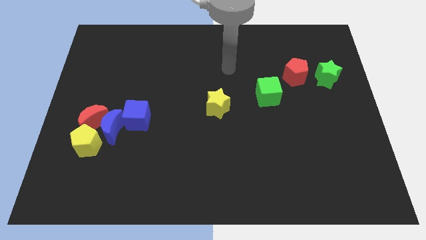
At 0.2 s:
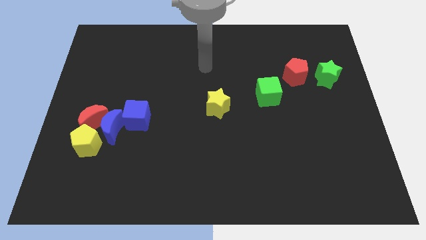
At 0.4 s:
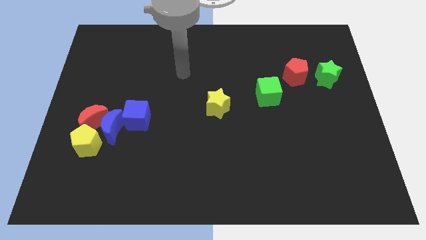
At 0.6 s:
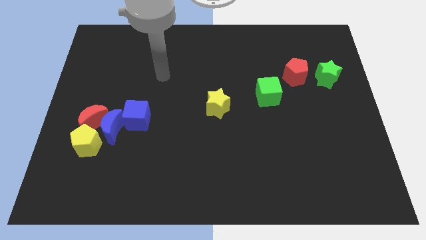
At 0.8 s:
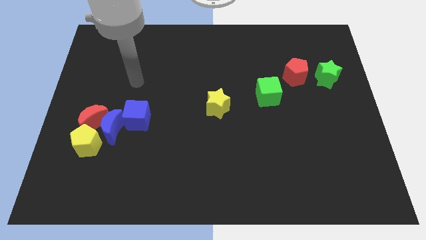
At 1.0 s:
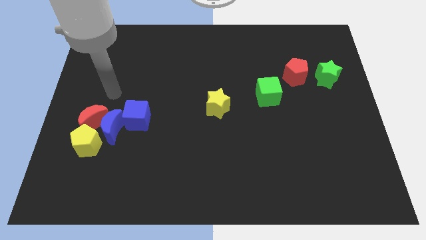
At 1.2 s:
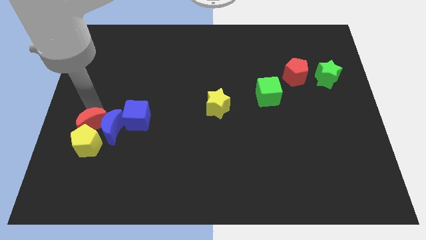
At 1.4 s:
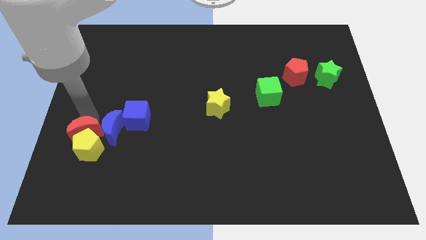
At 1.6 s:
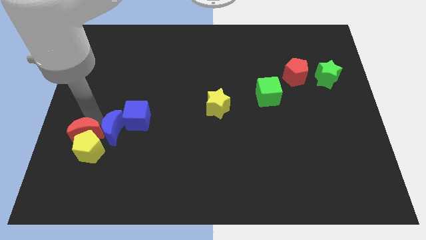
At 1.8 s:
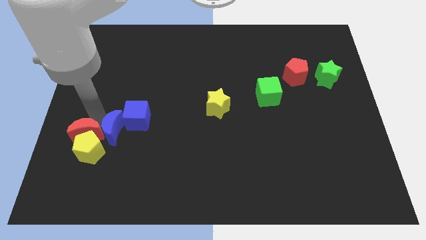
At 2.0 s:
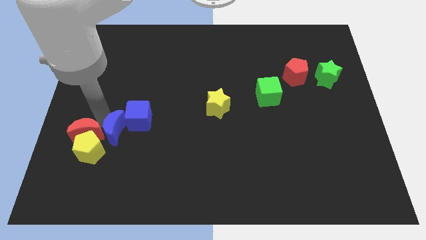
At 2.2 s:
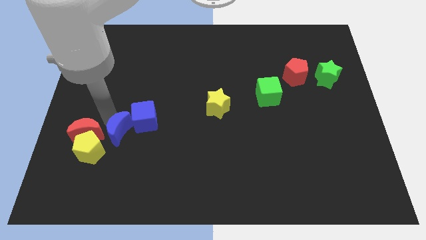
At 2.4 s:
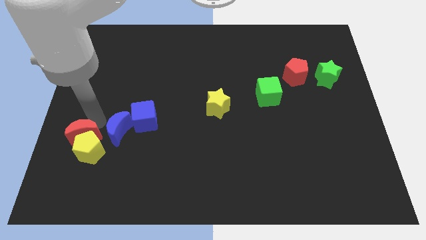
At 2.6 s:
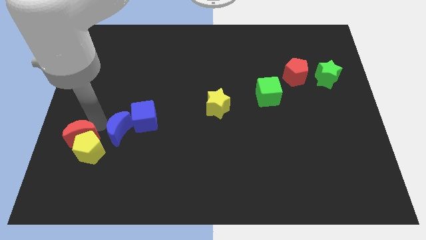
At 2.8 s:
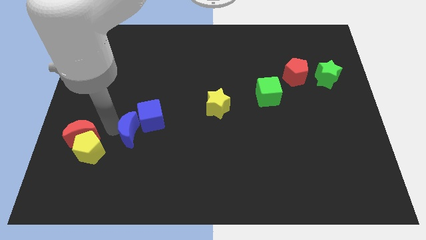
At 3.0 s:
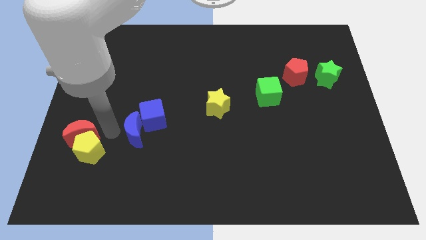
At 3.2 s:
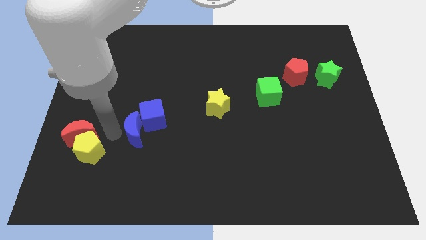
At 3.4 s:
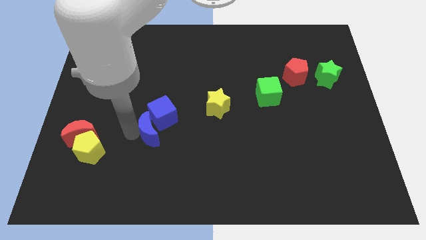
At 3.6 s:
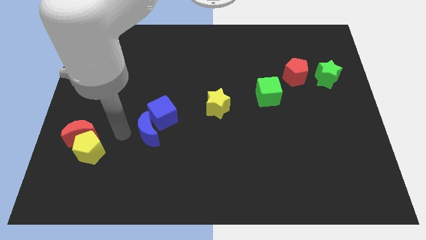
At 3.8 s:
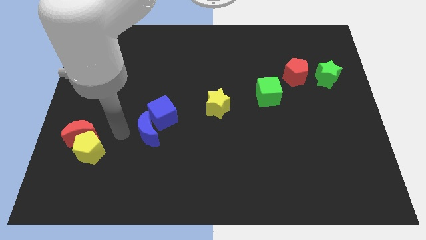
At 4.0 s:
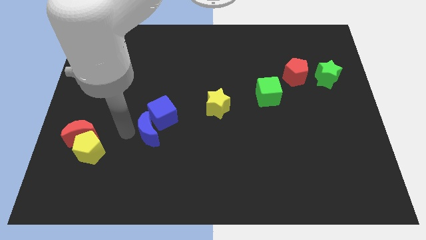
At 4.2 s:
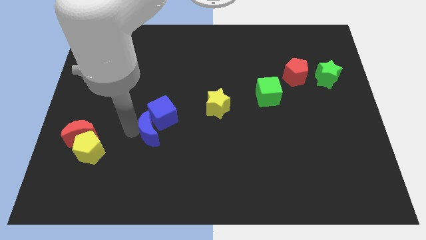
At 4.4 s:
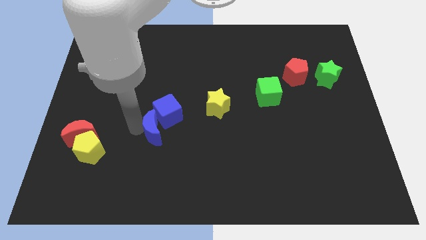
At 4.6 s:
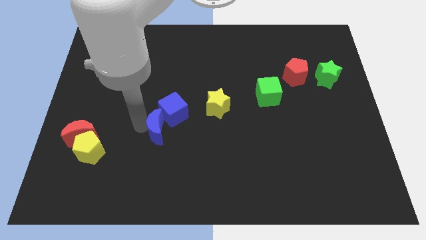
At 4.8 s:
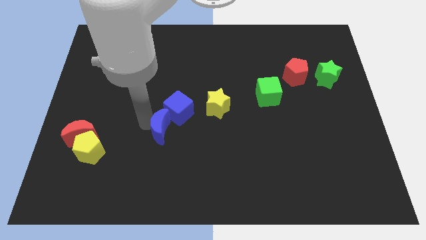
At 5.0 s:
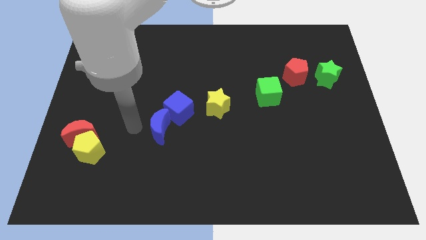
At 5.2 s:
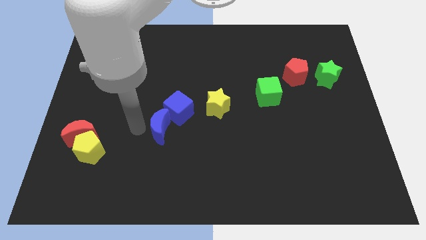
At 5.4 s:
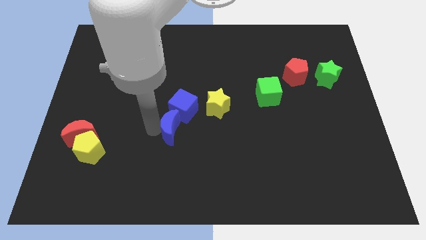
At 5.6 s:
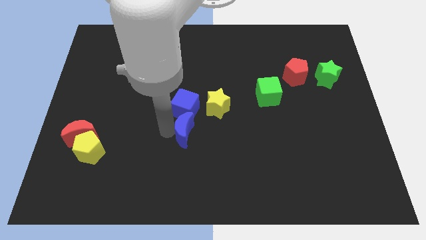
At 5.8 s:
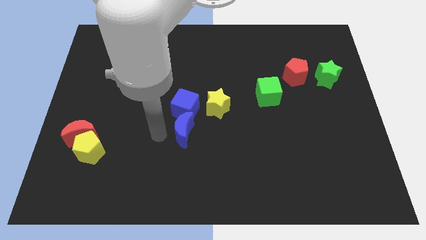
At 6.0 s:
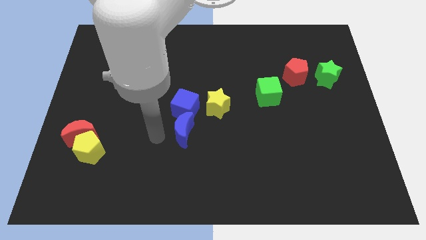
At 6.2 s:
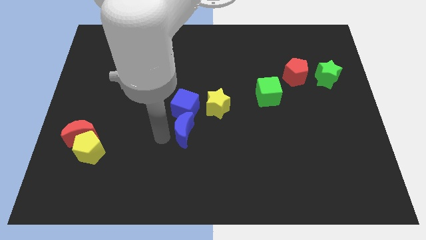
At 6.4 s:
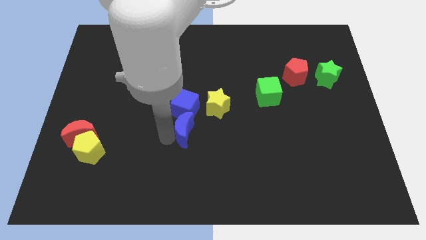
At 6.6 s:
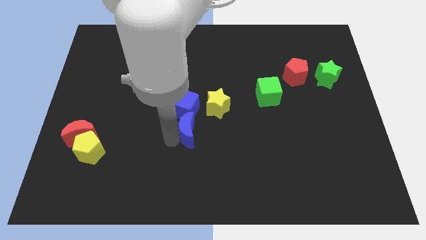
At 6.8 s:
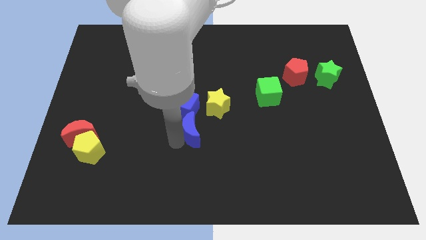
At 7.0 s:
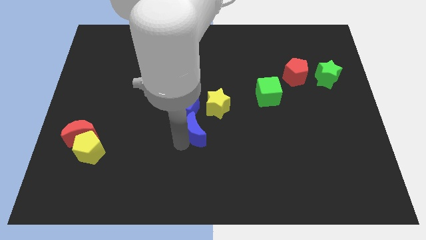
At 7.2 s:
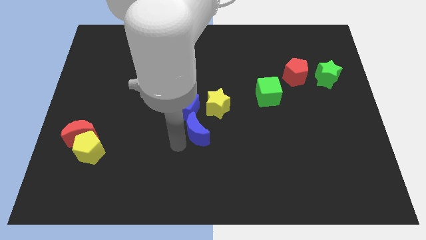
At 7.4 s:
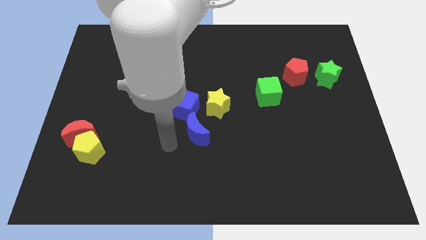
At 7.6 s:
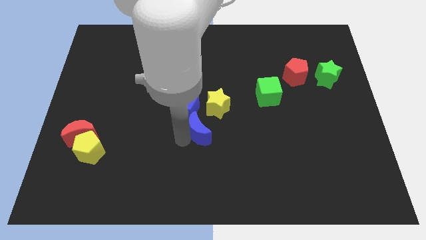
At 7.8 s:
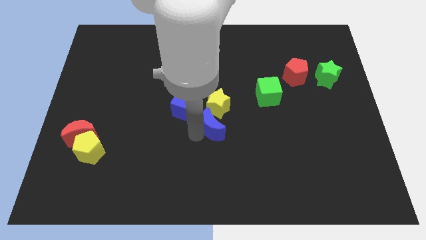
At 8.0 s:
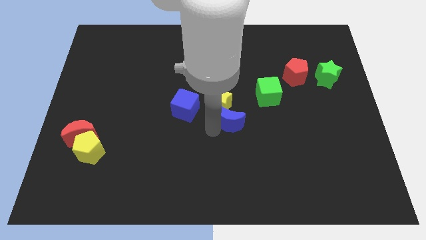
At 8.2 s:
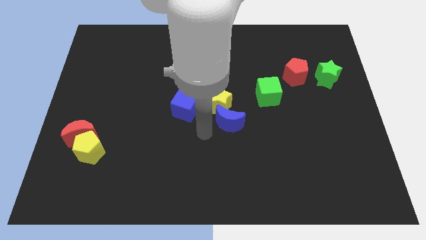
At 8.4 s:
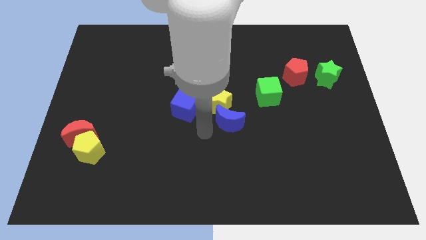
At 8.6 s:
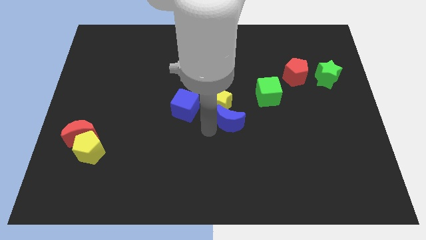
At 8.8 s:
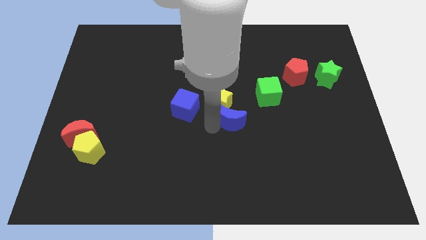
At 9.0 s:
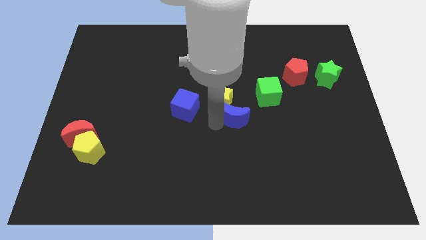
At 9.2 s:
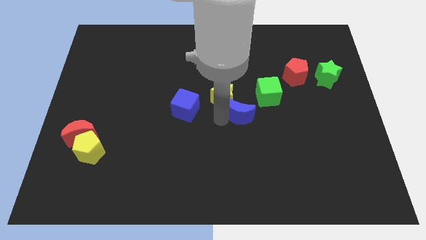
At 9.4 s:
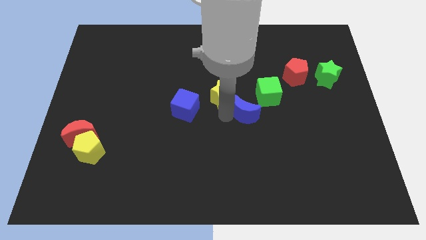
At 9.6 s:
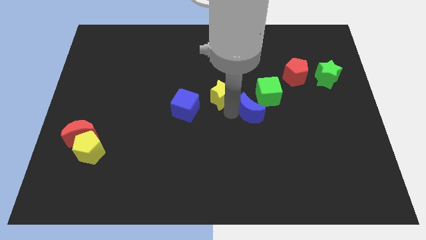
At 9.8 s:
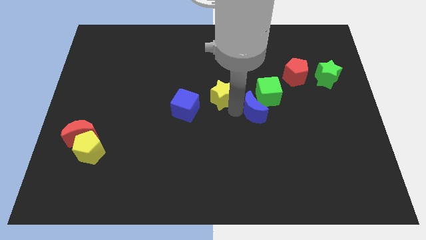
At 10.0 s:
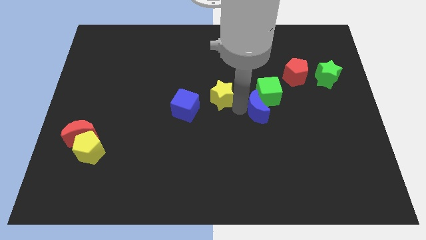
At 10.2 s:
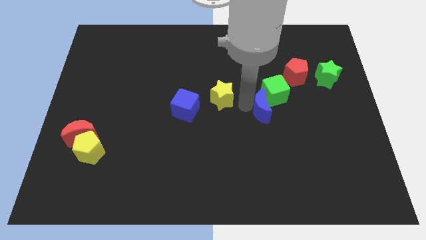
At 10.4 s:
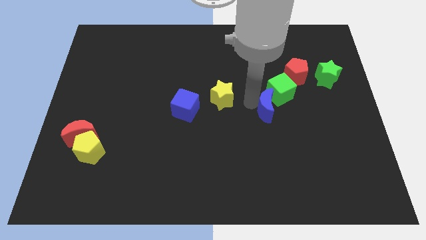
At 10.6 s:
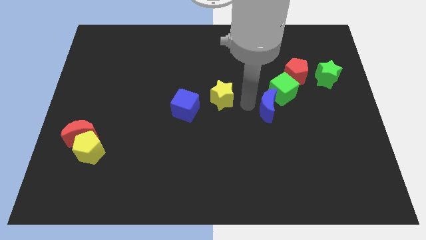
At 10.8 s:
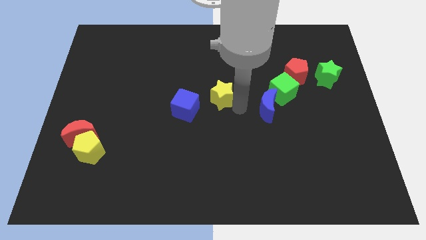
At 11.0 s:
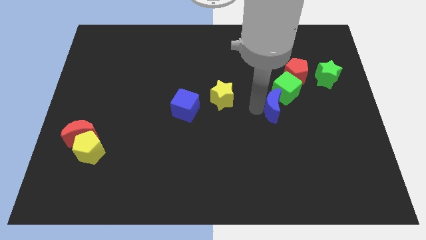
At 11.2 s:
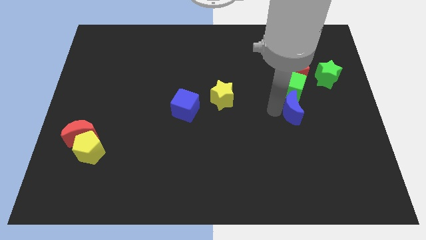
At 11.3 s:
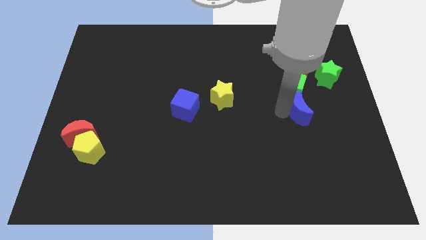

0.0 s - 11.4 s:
slide the blue moon diagonally down and to the right of the green cube
